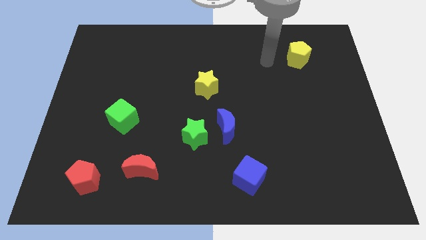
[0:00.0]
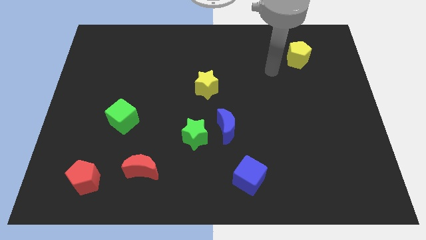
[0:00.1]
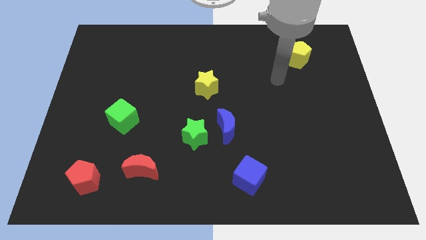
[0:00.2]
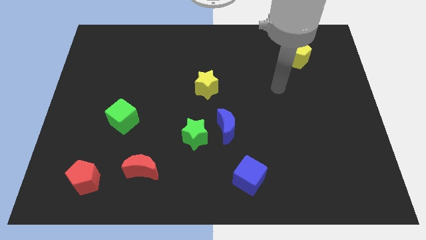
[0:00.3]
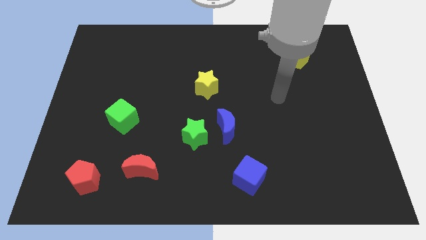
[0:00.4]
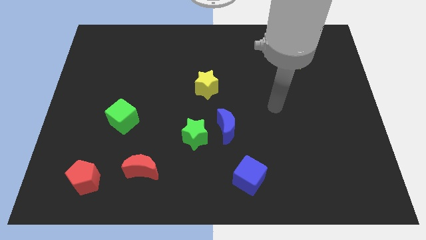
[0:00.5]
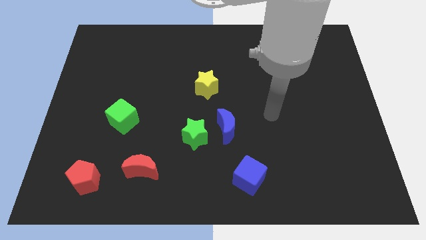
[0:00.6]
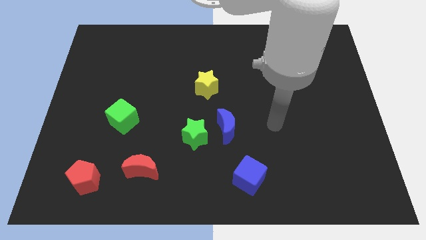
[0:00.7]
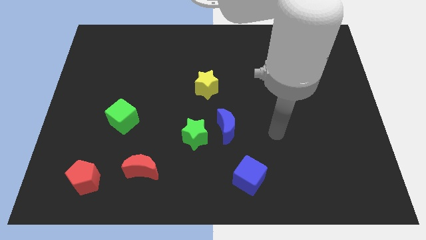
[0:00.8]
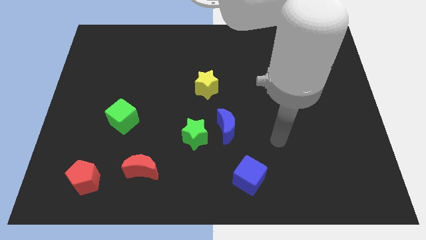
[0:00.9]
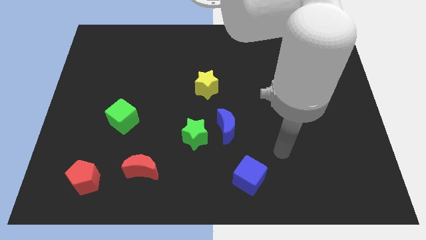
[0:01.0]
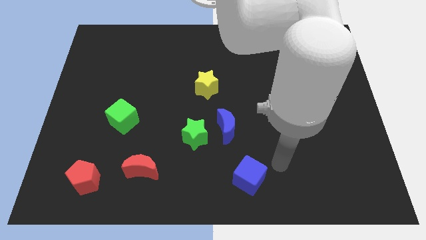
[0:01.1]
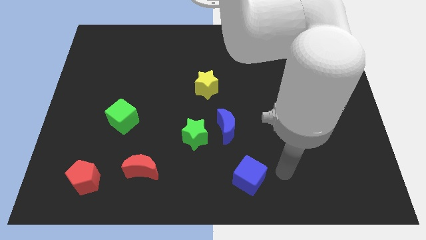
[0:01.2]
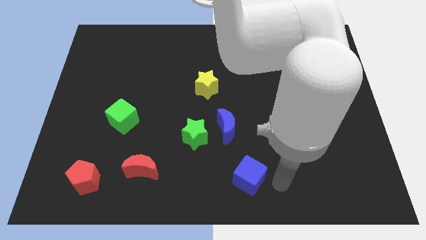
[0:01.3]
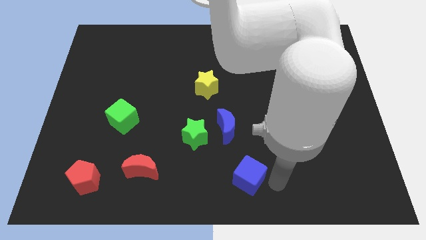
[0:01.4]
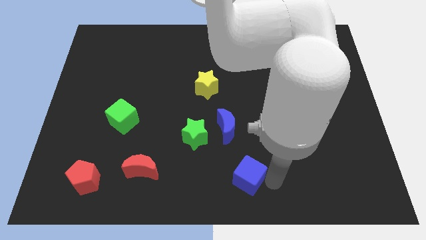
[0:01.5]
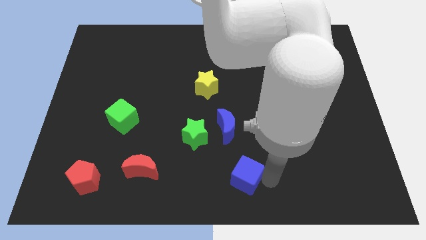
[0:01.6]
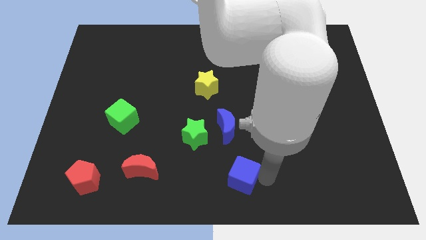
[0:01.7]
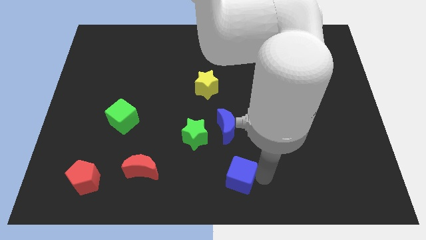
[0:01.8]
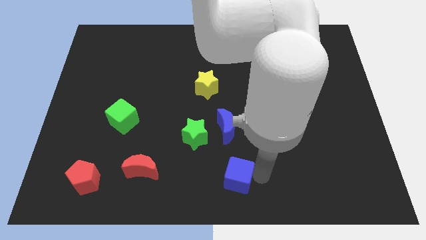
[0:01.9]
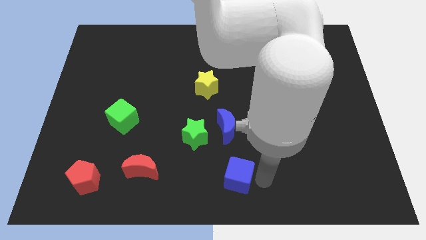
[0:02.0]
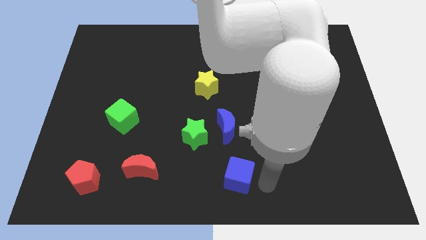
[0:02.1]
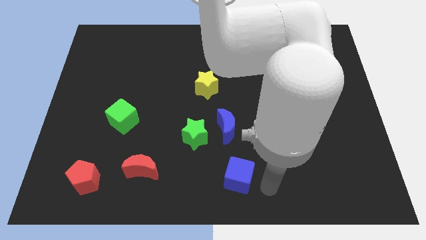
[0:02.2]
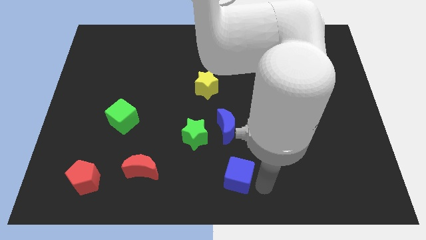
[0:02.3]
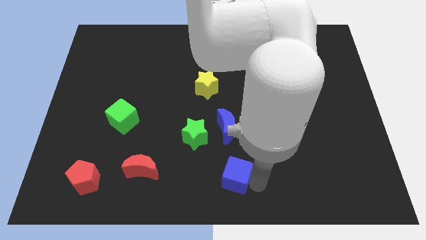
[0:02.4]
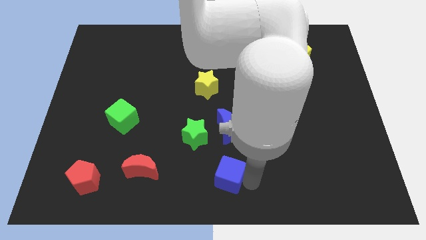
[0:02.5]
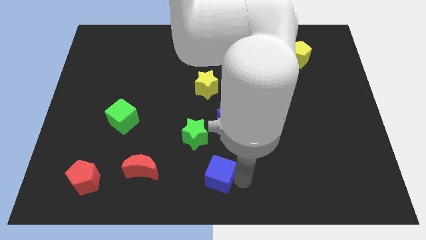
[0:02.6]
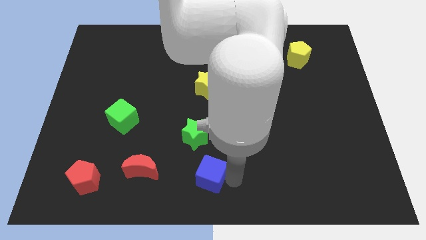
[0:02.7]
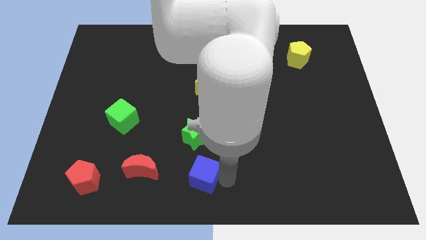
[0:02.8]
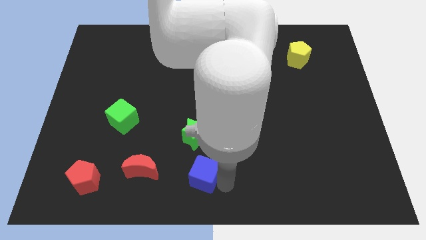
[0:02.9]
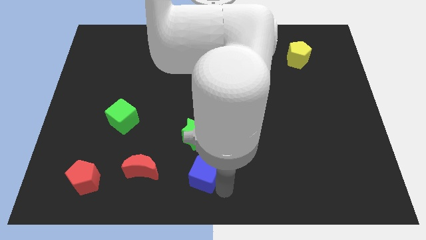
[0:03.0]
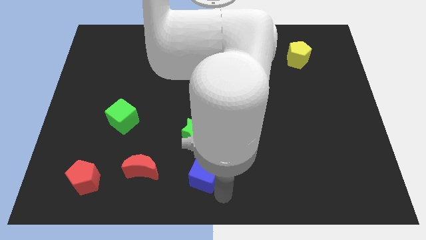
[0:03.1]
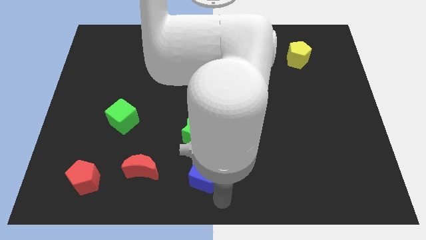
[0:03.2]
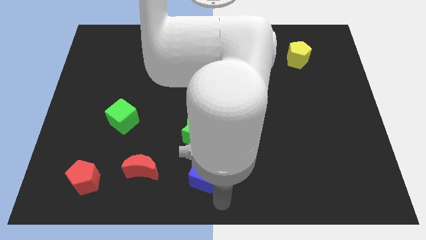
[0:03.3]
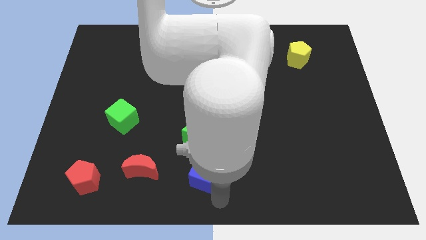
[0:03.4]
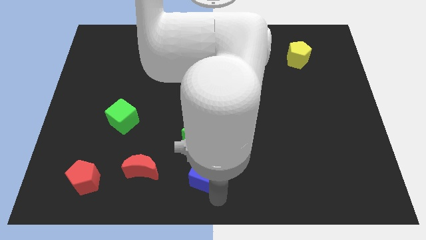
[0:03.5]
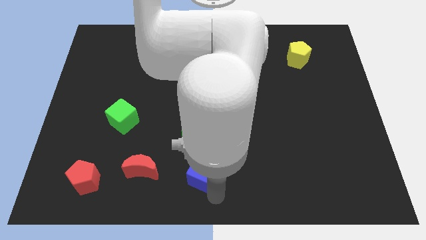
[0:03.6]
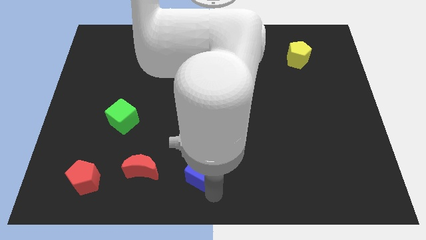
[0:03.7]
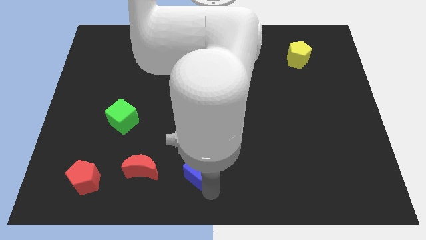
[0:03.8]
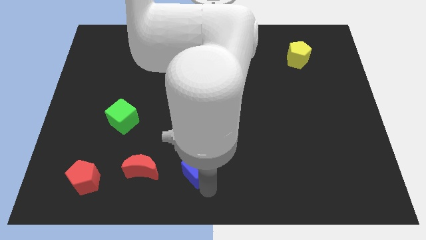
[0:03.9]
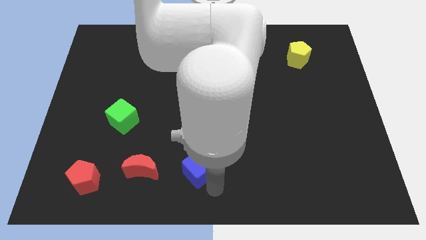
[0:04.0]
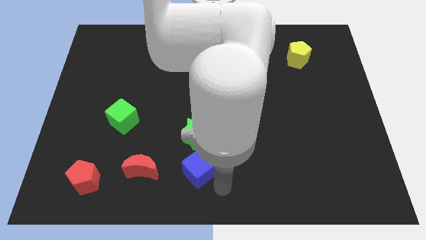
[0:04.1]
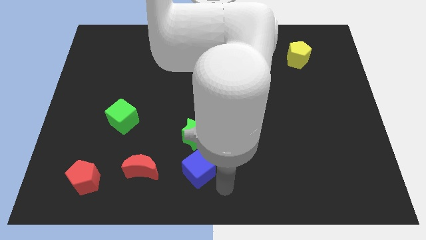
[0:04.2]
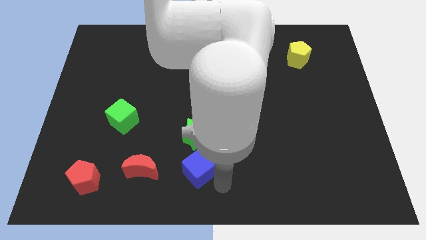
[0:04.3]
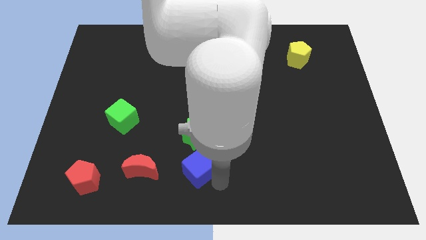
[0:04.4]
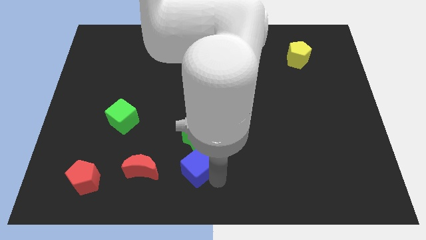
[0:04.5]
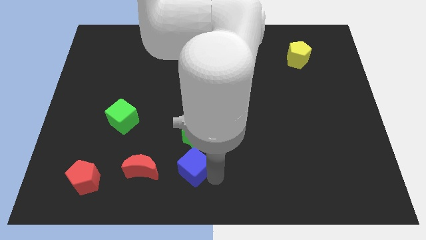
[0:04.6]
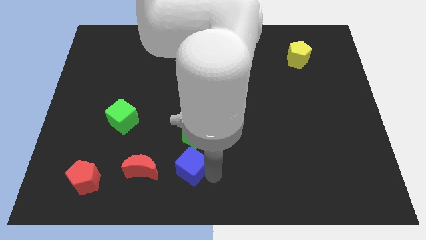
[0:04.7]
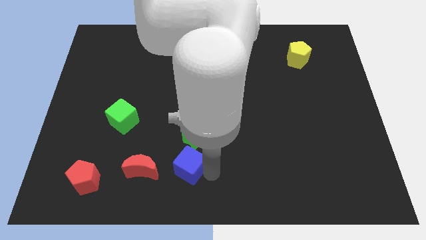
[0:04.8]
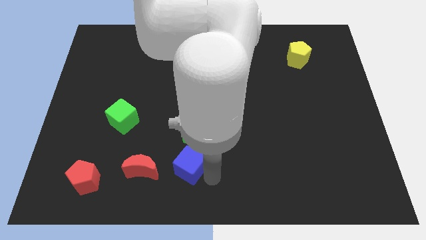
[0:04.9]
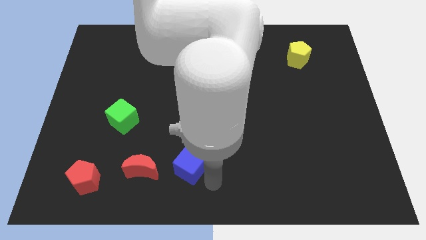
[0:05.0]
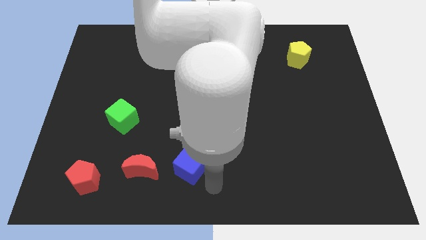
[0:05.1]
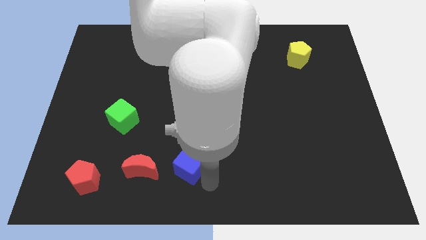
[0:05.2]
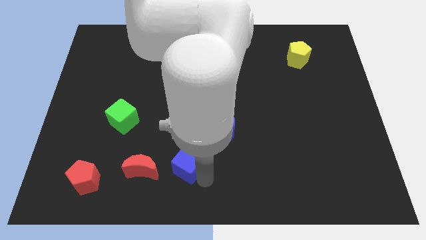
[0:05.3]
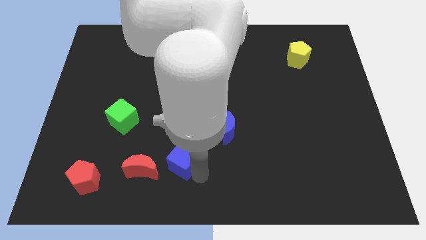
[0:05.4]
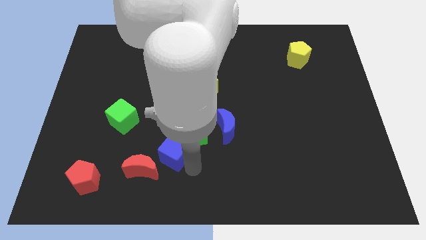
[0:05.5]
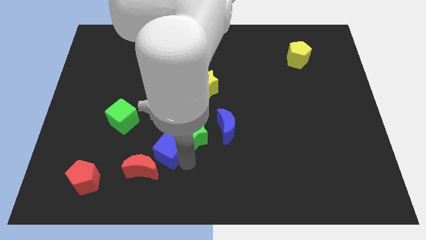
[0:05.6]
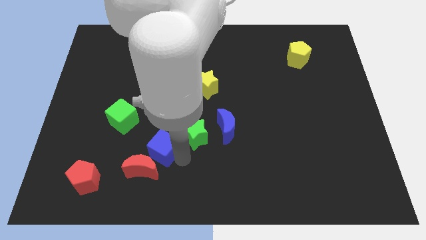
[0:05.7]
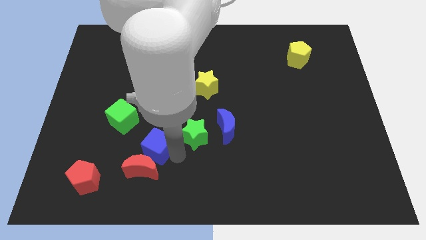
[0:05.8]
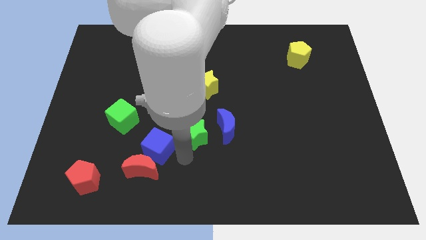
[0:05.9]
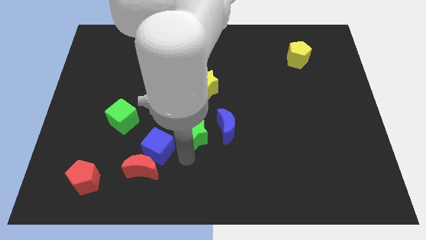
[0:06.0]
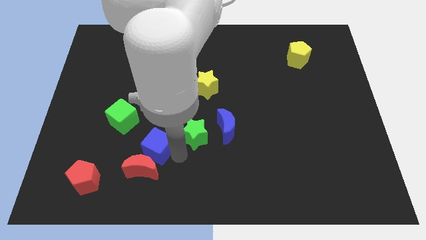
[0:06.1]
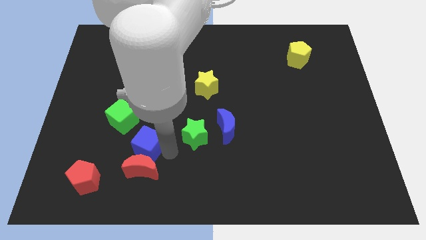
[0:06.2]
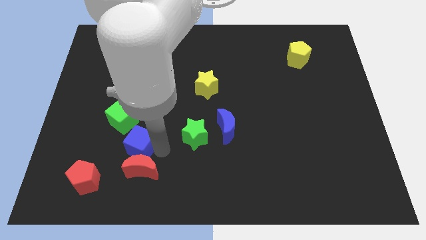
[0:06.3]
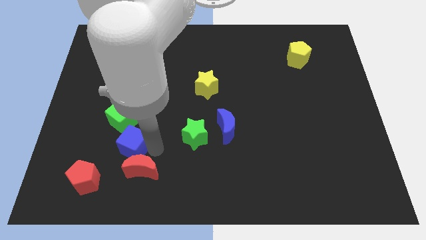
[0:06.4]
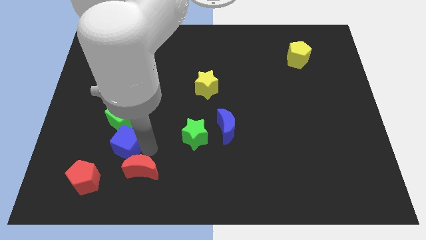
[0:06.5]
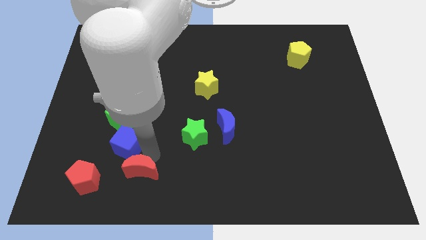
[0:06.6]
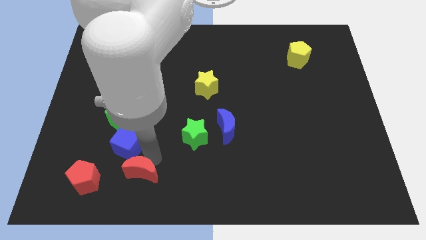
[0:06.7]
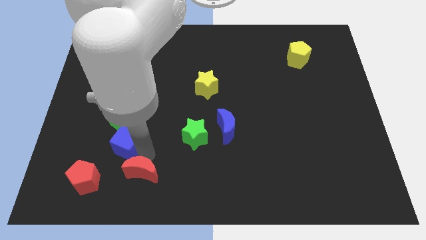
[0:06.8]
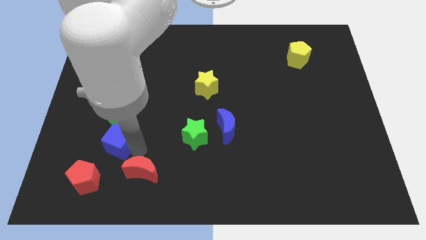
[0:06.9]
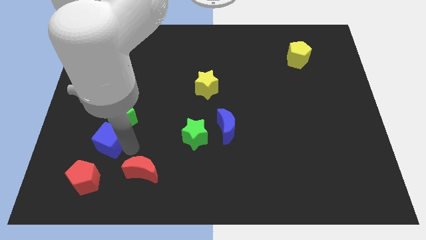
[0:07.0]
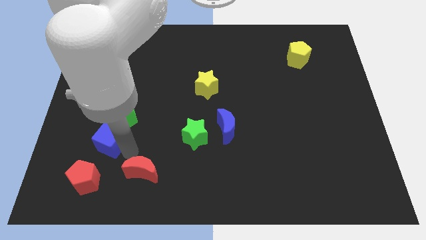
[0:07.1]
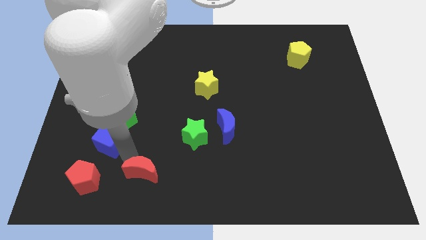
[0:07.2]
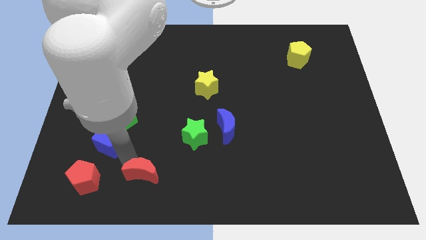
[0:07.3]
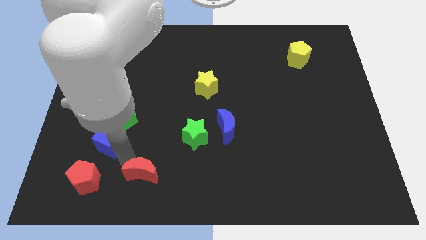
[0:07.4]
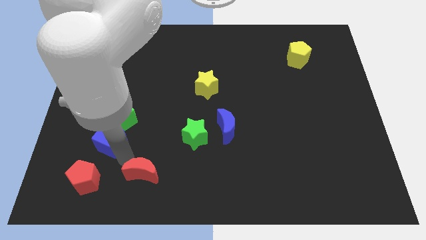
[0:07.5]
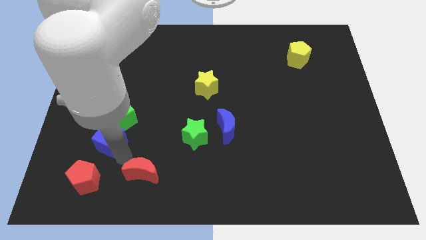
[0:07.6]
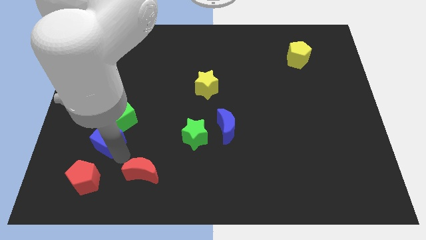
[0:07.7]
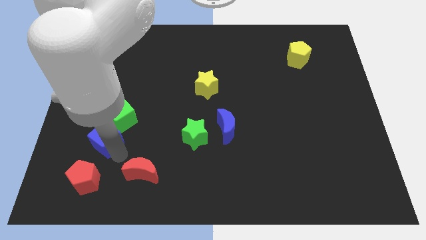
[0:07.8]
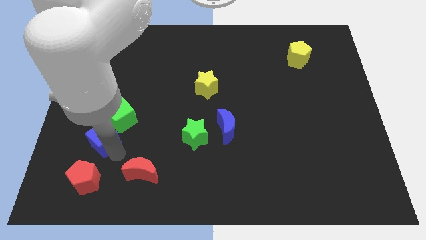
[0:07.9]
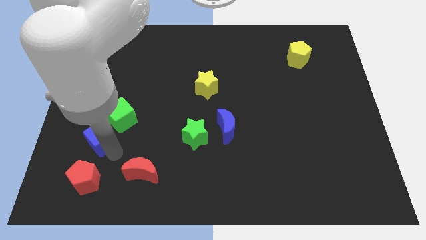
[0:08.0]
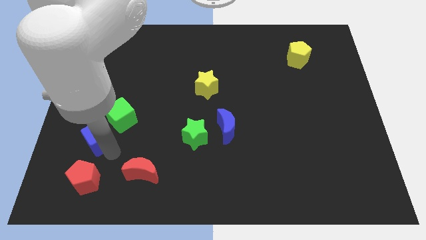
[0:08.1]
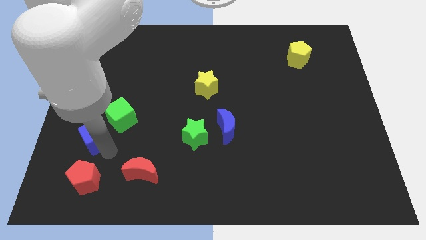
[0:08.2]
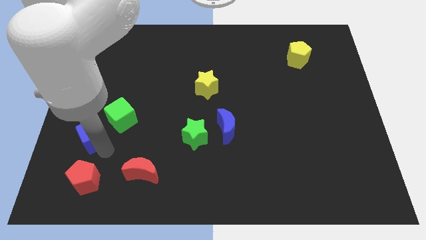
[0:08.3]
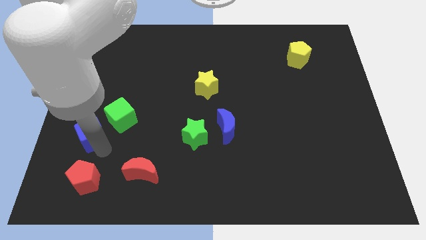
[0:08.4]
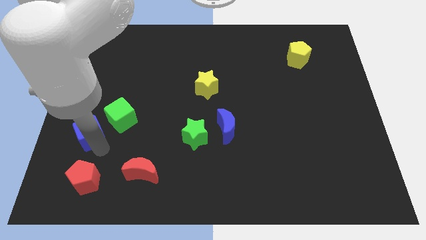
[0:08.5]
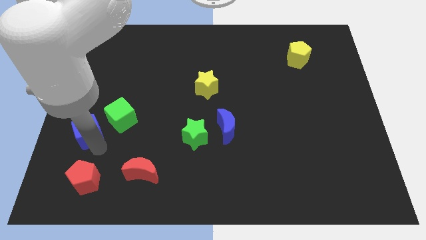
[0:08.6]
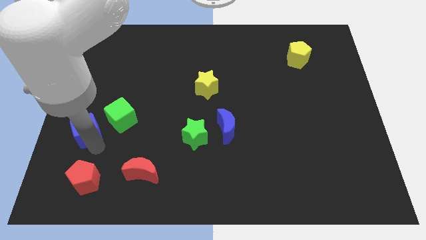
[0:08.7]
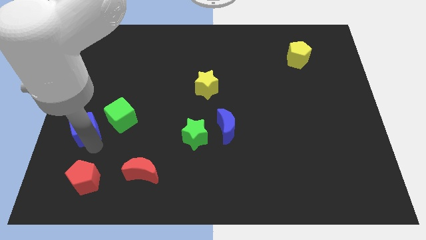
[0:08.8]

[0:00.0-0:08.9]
move the blue cube to the center left
